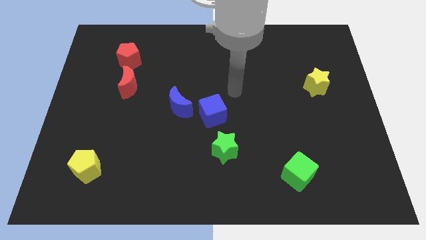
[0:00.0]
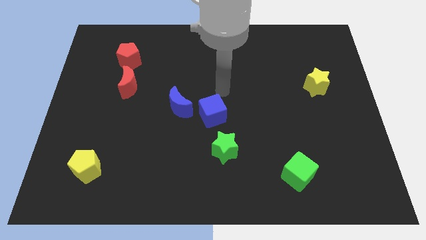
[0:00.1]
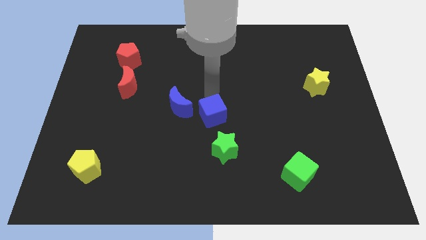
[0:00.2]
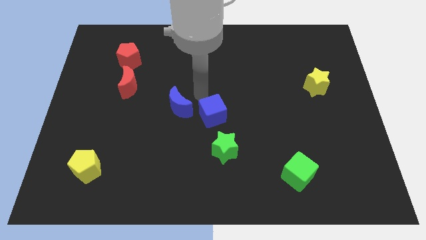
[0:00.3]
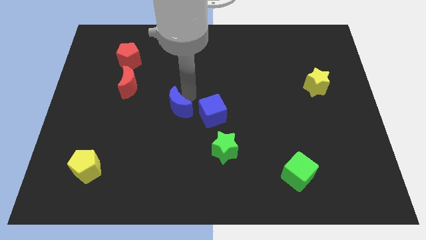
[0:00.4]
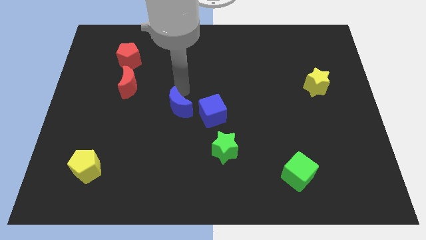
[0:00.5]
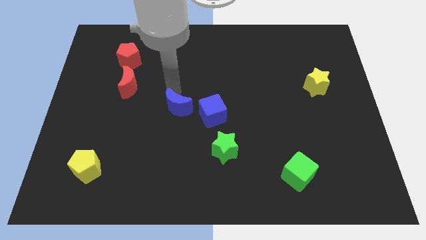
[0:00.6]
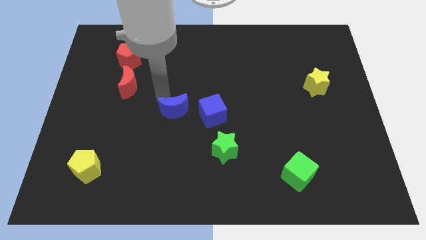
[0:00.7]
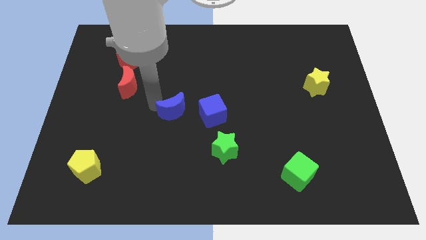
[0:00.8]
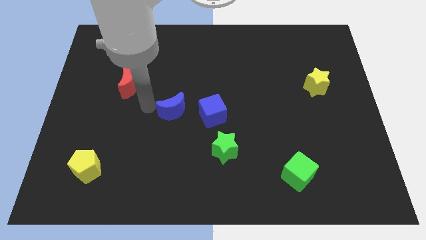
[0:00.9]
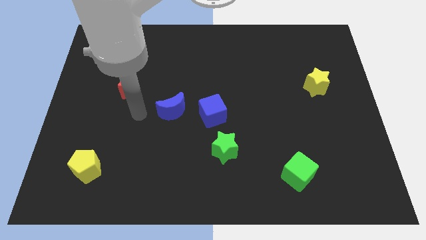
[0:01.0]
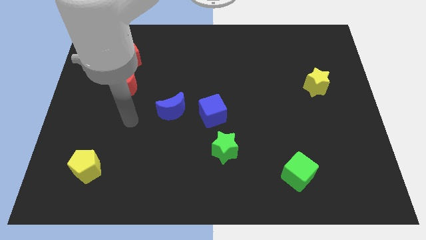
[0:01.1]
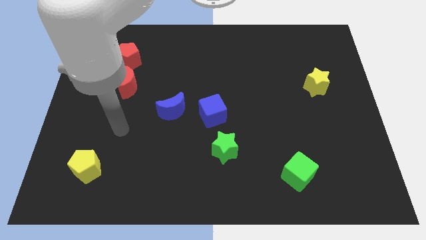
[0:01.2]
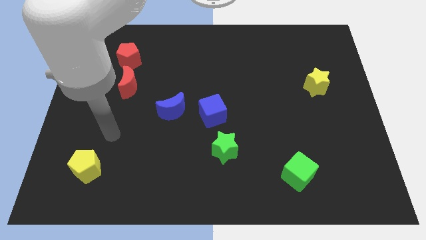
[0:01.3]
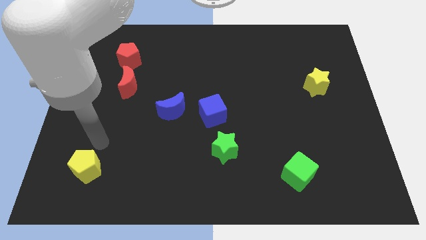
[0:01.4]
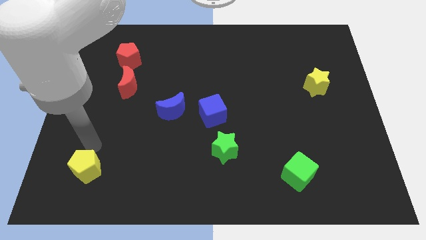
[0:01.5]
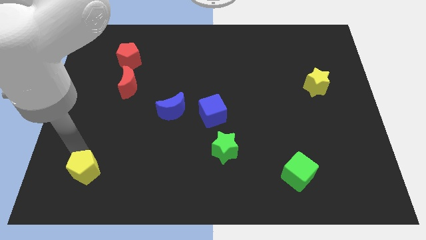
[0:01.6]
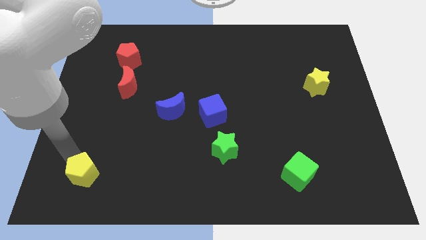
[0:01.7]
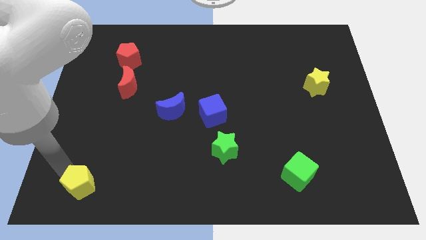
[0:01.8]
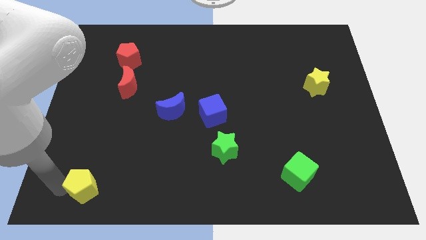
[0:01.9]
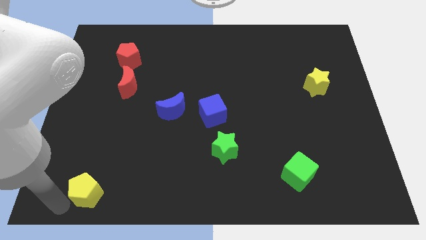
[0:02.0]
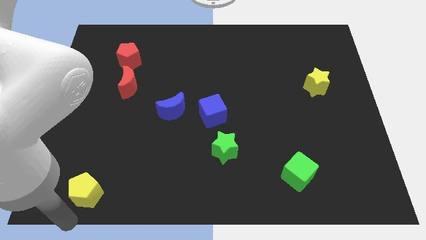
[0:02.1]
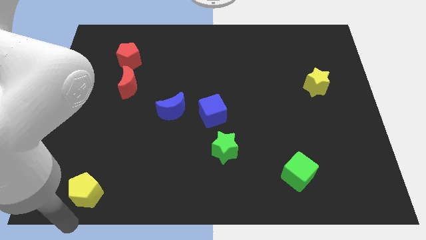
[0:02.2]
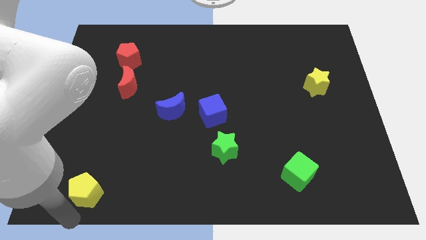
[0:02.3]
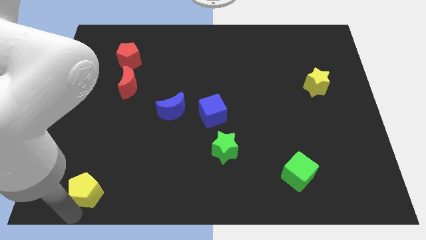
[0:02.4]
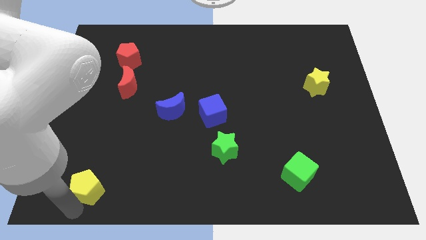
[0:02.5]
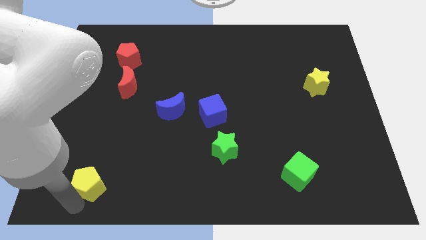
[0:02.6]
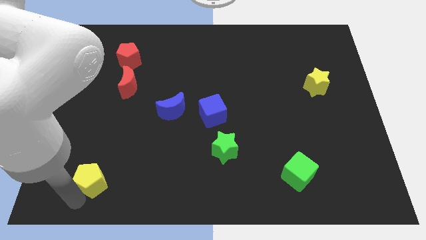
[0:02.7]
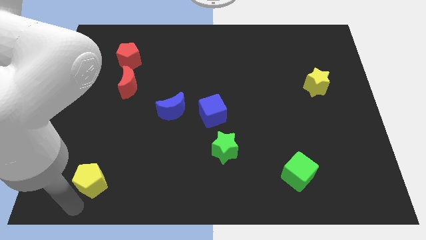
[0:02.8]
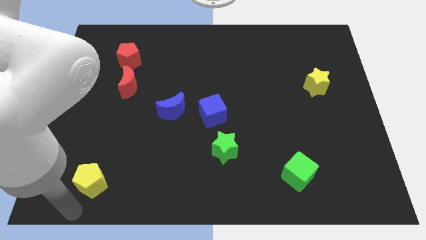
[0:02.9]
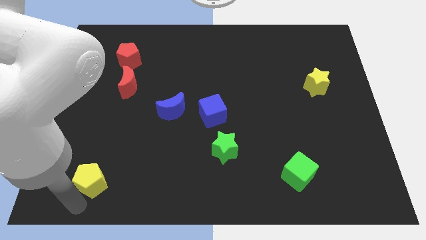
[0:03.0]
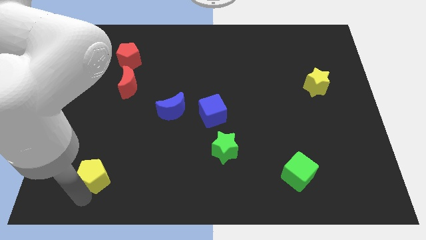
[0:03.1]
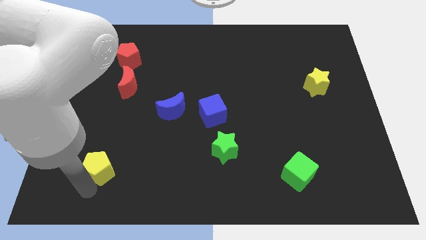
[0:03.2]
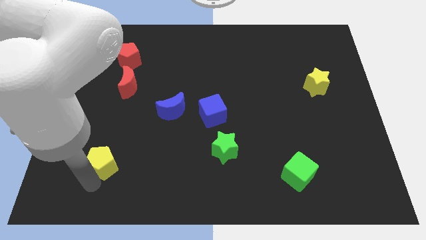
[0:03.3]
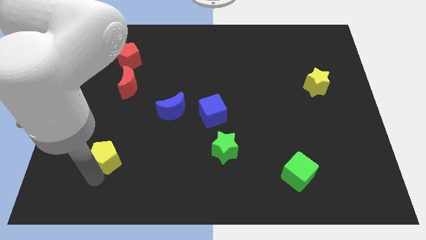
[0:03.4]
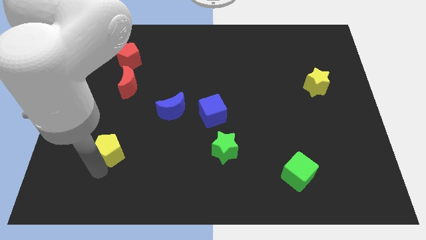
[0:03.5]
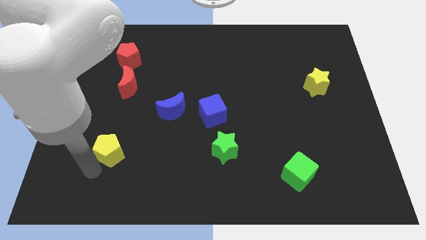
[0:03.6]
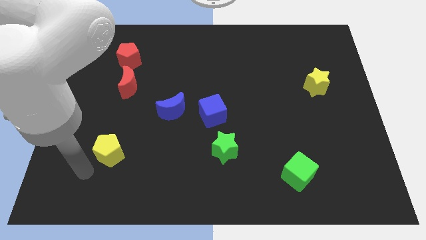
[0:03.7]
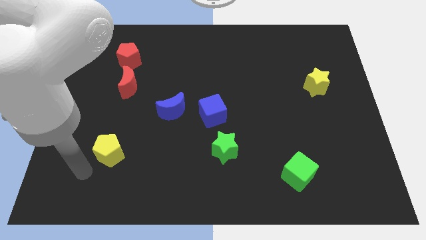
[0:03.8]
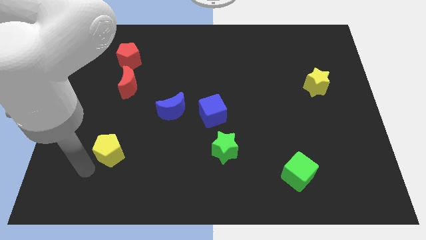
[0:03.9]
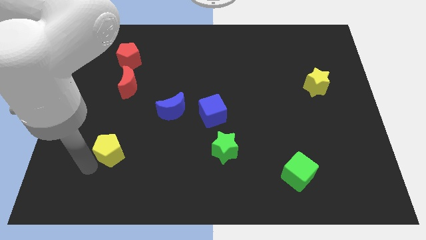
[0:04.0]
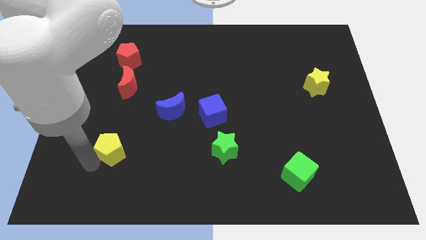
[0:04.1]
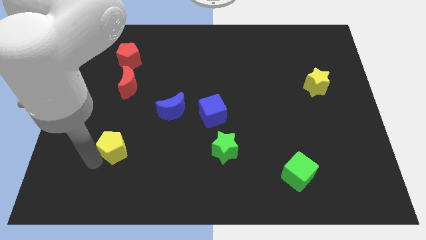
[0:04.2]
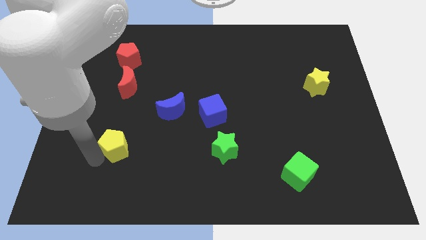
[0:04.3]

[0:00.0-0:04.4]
slightly push the yellow pentagon upwards and then to the right

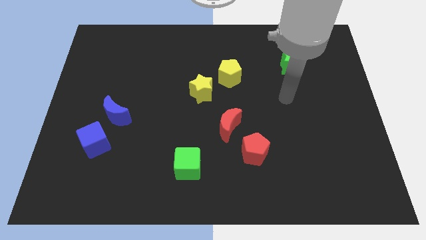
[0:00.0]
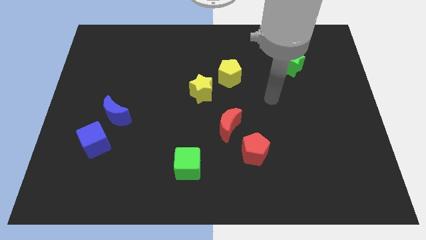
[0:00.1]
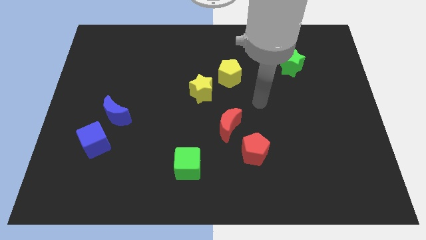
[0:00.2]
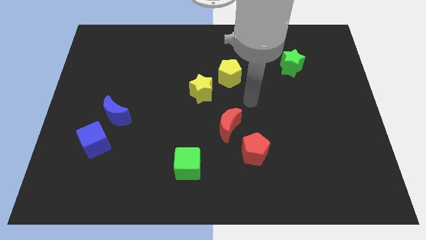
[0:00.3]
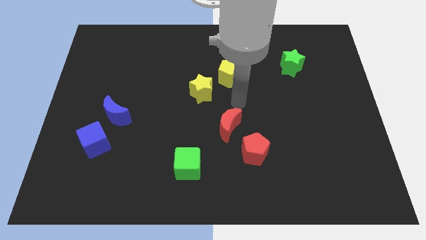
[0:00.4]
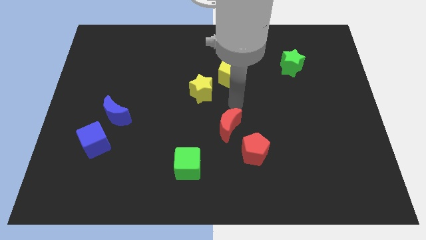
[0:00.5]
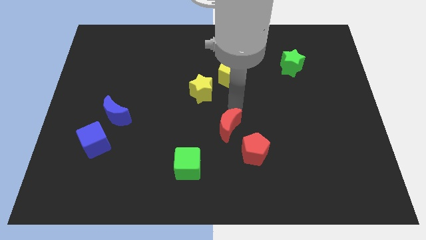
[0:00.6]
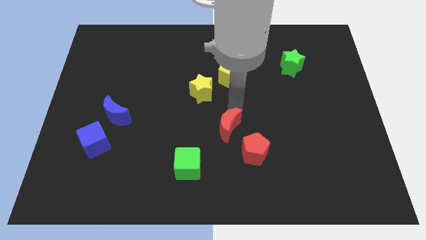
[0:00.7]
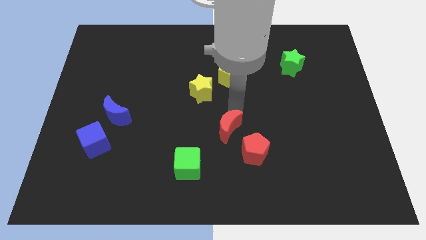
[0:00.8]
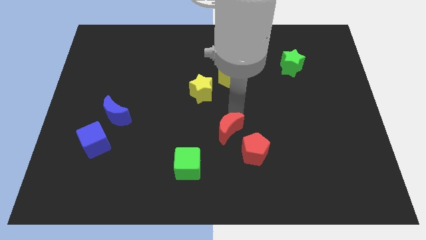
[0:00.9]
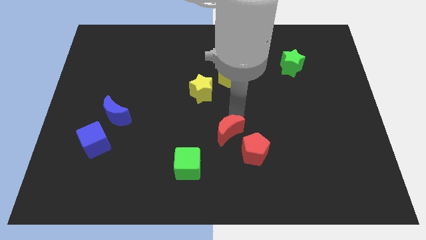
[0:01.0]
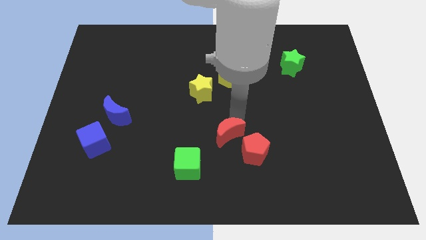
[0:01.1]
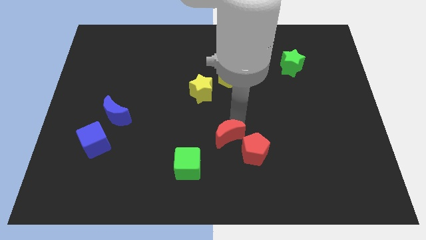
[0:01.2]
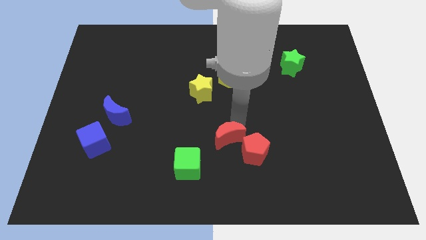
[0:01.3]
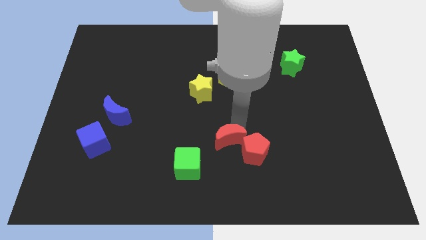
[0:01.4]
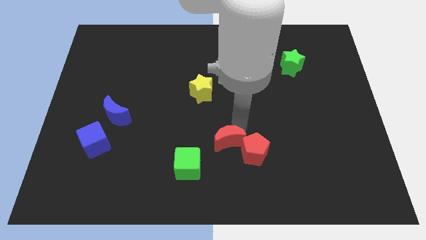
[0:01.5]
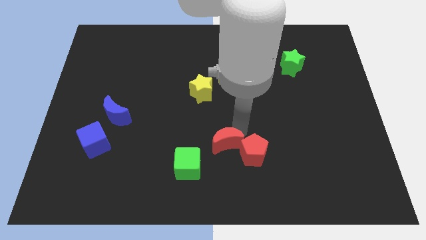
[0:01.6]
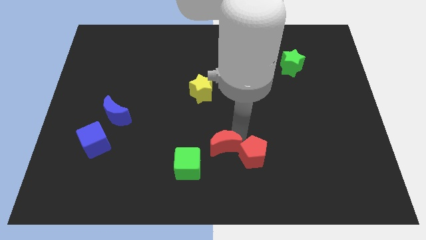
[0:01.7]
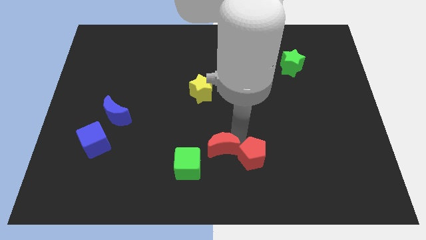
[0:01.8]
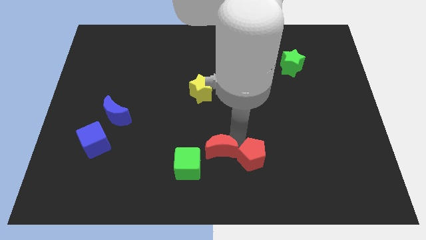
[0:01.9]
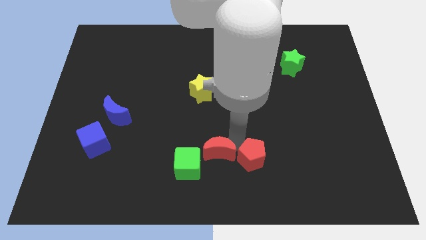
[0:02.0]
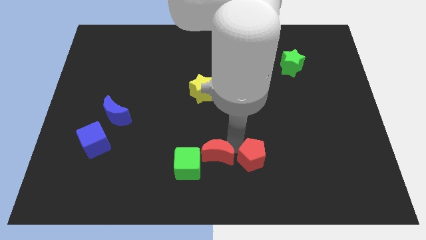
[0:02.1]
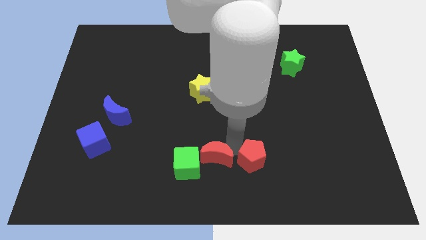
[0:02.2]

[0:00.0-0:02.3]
move the red moon downwards and to the left diagonally slightly

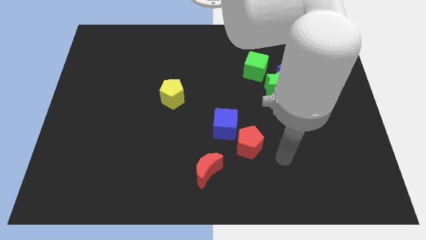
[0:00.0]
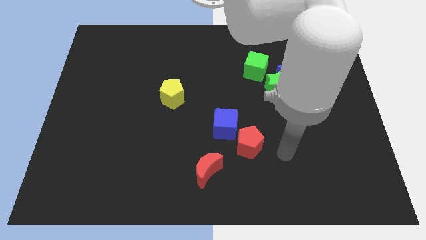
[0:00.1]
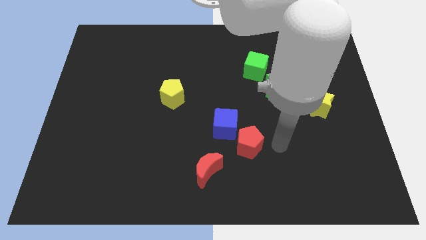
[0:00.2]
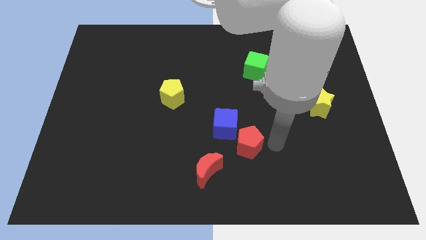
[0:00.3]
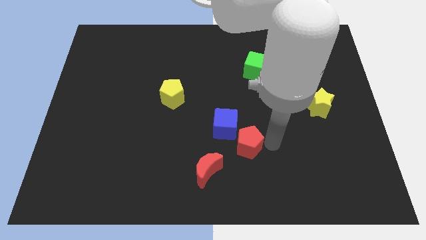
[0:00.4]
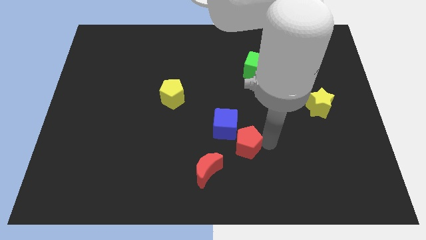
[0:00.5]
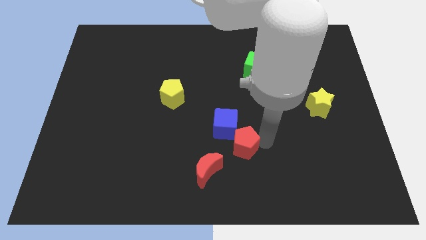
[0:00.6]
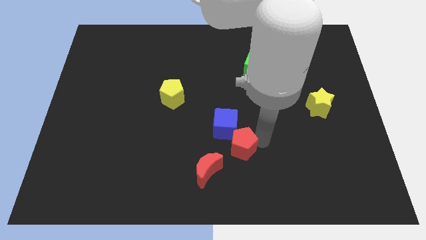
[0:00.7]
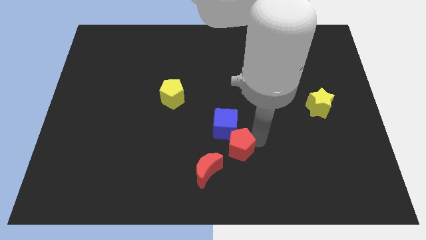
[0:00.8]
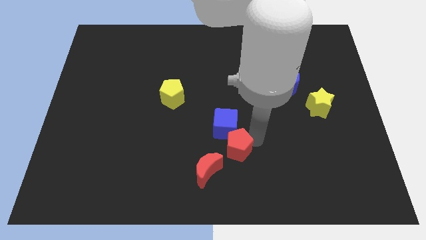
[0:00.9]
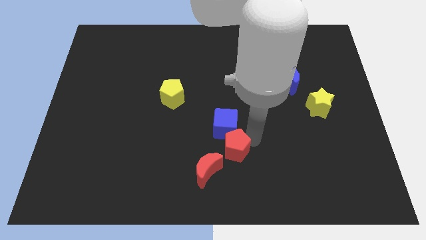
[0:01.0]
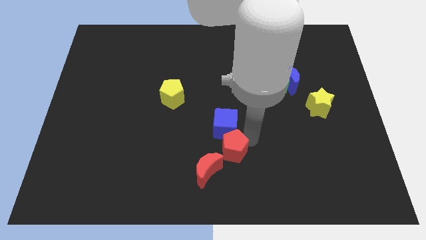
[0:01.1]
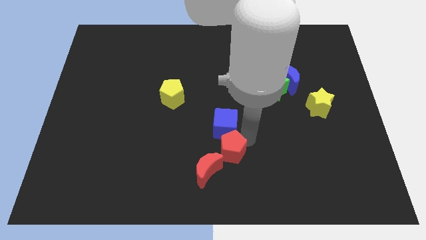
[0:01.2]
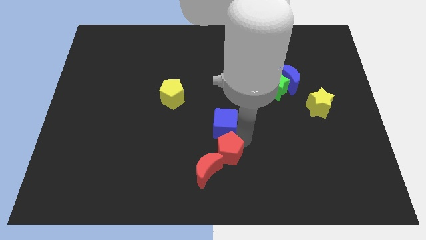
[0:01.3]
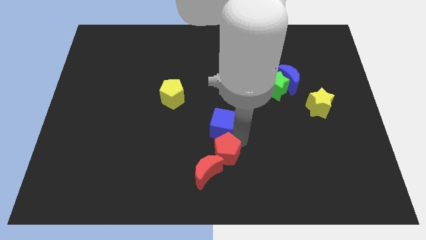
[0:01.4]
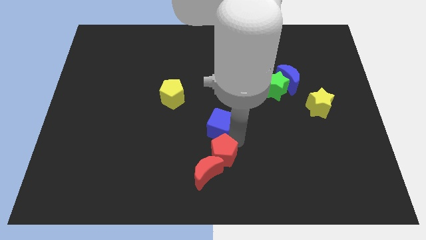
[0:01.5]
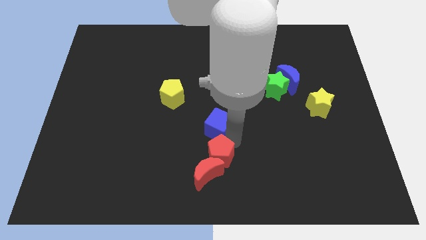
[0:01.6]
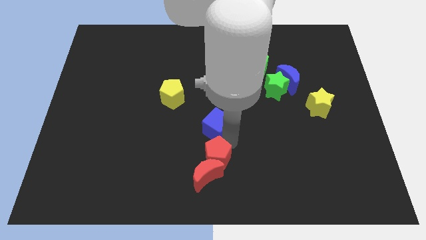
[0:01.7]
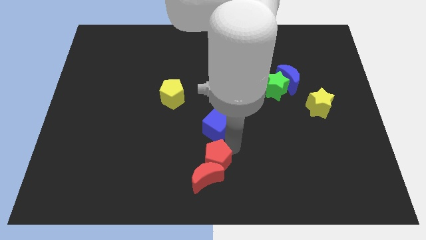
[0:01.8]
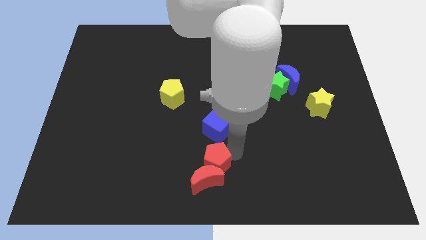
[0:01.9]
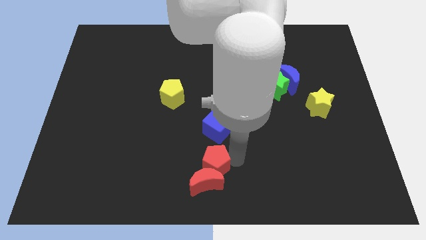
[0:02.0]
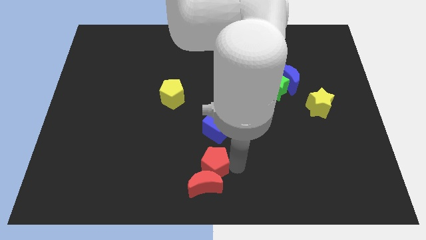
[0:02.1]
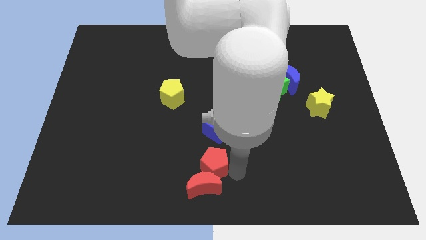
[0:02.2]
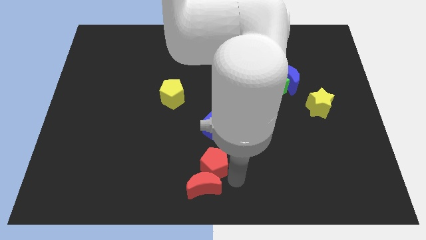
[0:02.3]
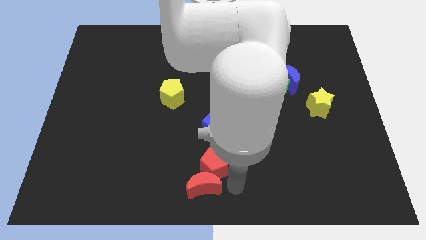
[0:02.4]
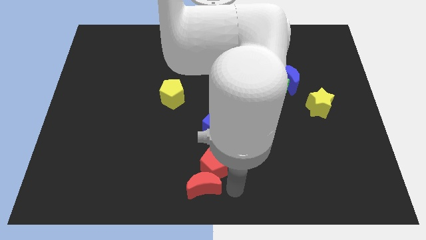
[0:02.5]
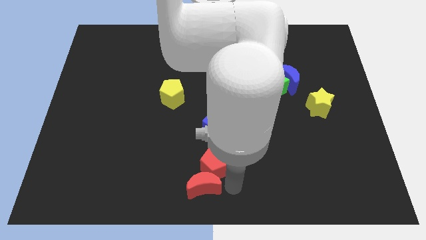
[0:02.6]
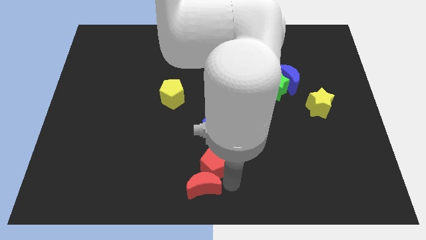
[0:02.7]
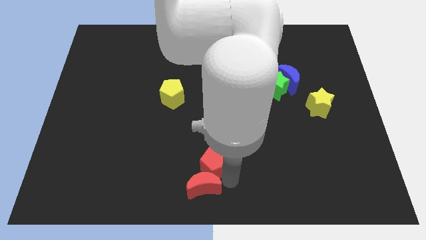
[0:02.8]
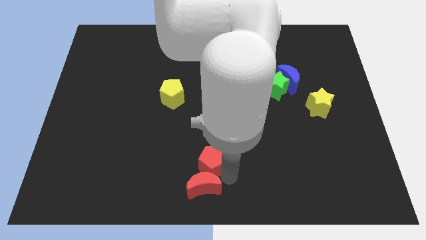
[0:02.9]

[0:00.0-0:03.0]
move the red pentagon a little to the left
